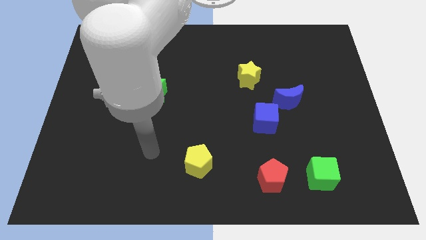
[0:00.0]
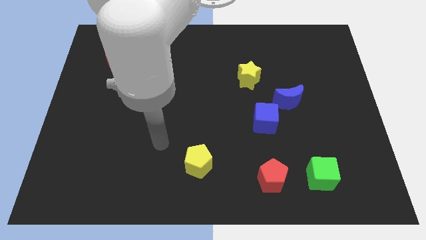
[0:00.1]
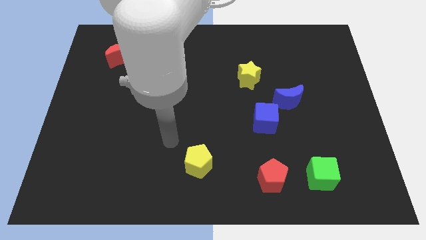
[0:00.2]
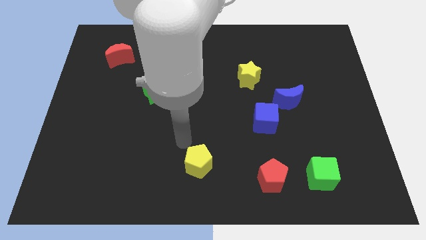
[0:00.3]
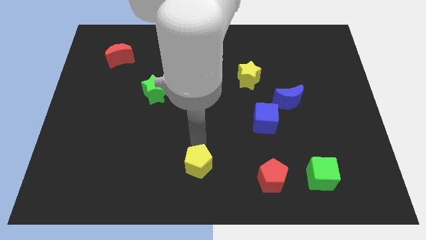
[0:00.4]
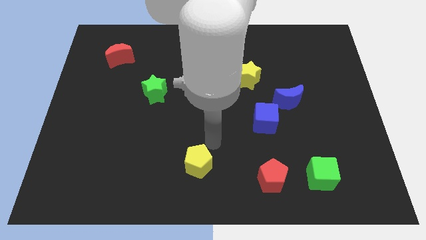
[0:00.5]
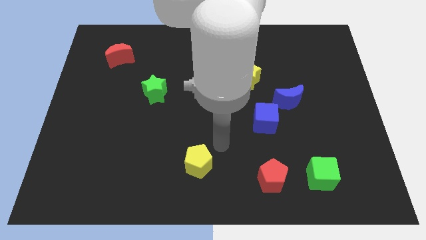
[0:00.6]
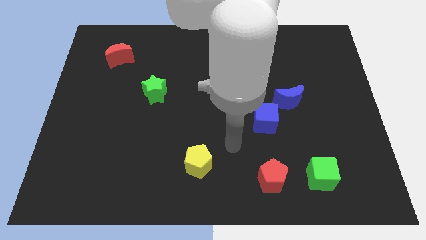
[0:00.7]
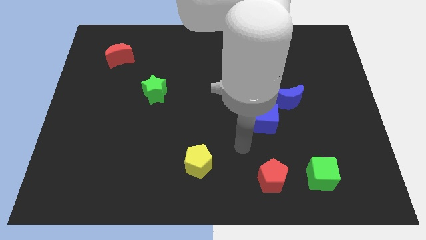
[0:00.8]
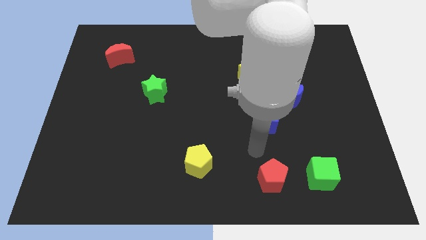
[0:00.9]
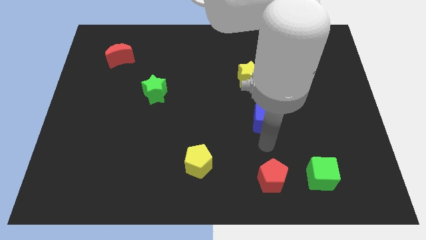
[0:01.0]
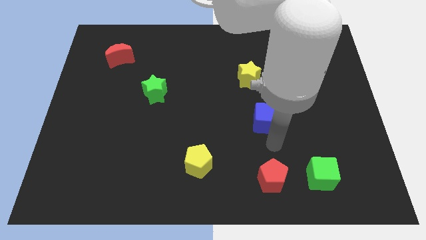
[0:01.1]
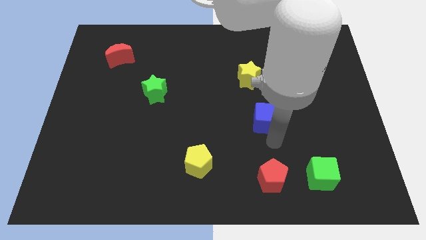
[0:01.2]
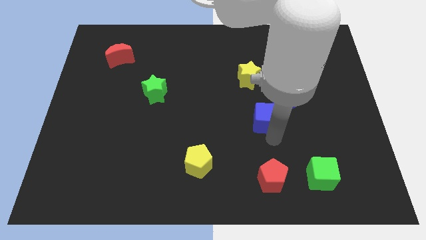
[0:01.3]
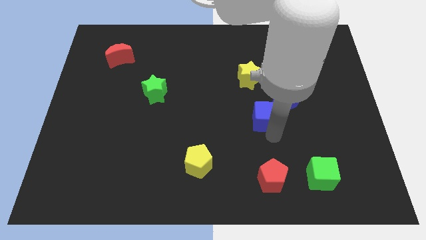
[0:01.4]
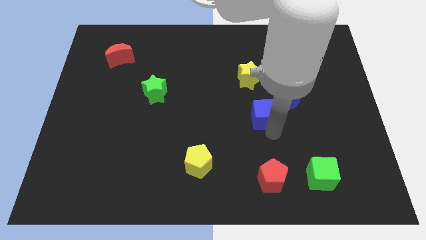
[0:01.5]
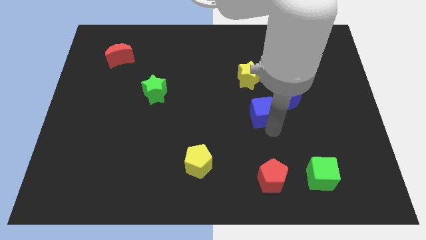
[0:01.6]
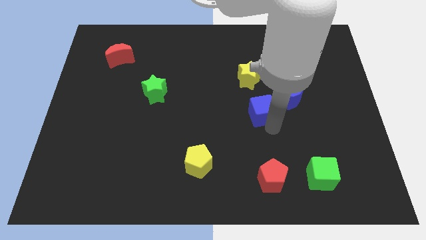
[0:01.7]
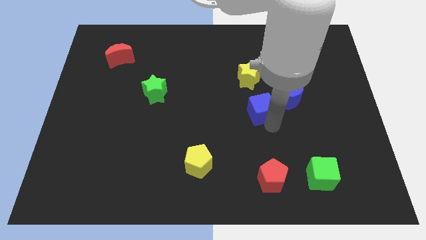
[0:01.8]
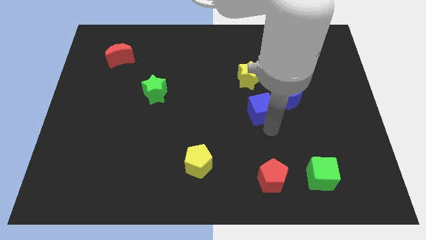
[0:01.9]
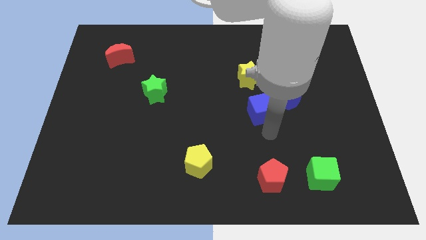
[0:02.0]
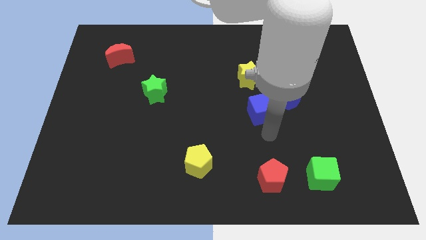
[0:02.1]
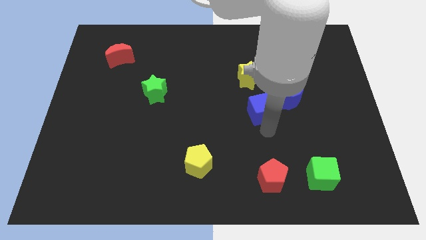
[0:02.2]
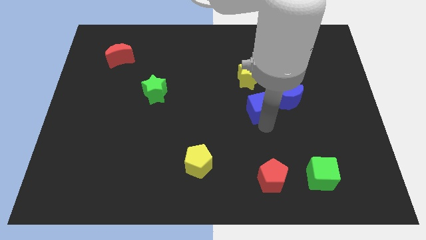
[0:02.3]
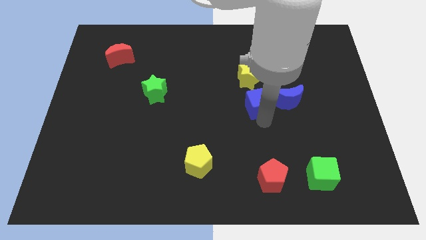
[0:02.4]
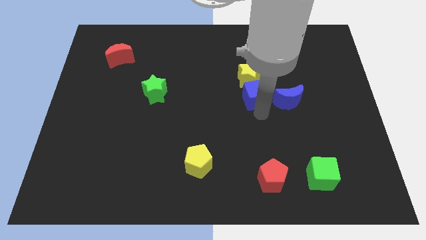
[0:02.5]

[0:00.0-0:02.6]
slide the blue cube towards the yellow star

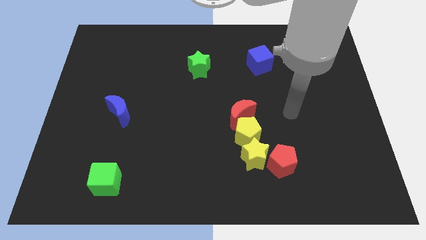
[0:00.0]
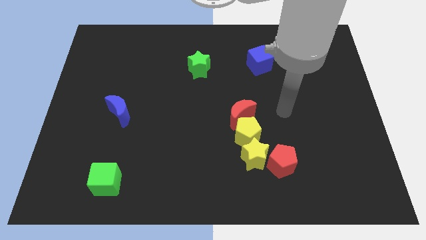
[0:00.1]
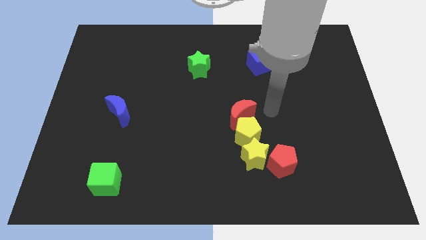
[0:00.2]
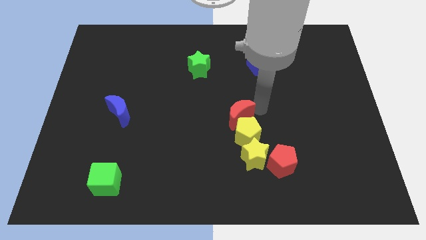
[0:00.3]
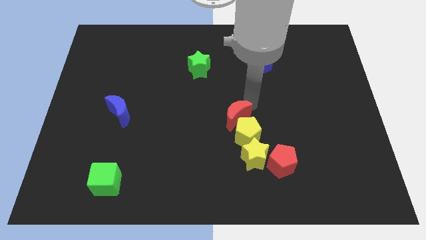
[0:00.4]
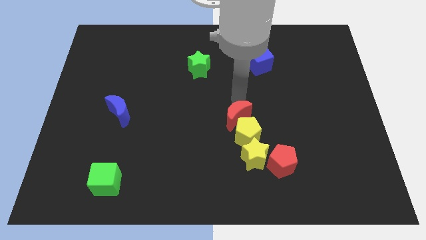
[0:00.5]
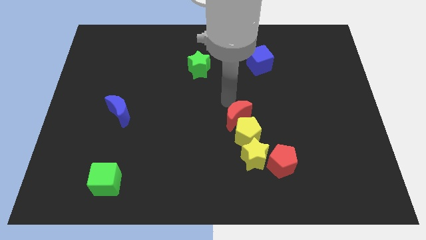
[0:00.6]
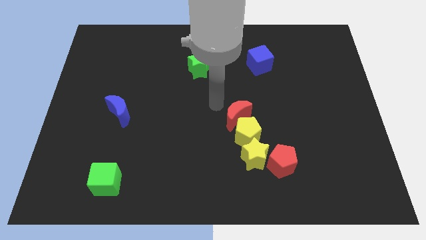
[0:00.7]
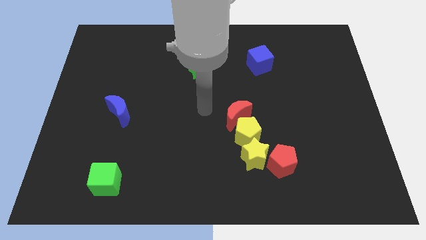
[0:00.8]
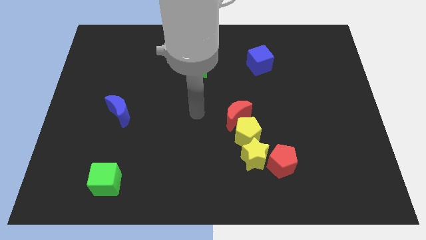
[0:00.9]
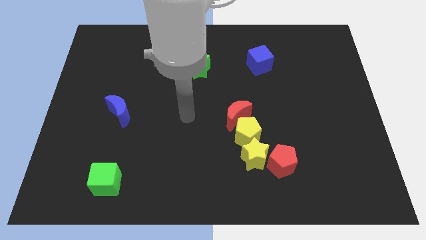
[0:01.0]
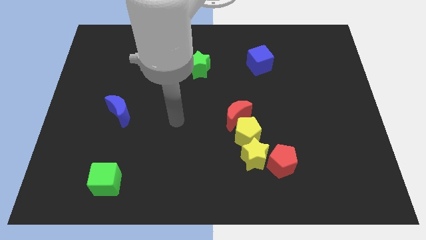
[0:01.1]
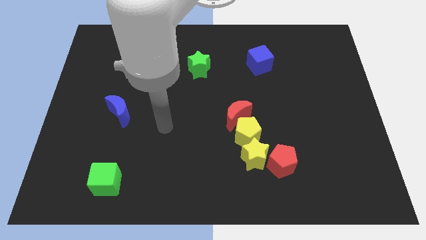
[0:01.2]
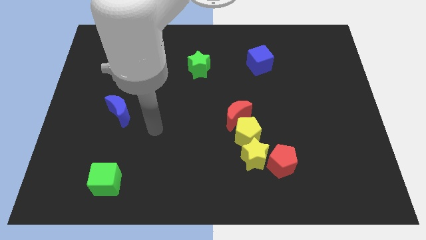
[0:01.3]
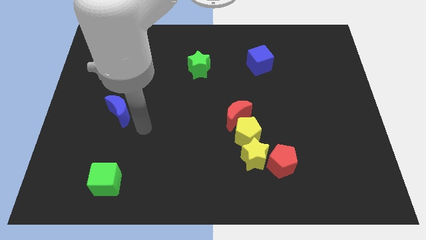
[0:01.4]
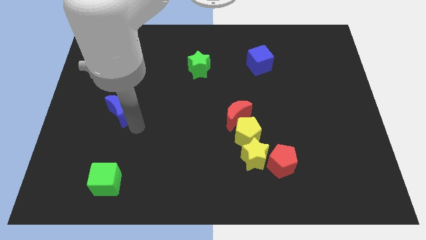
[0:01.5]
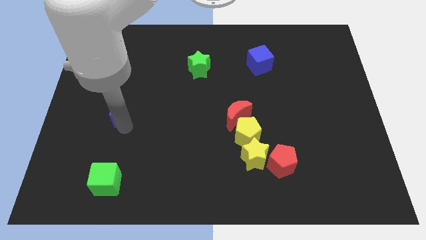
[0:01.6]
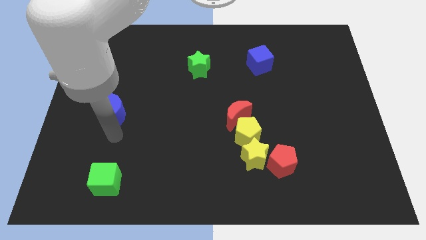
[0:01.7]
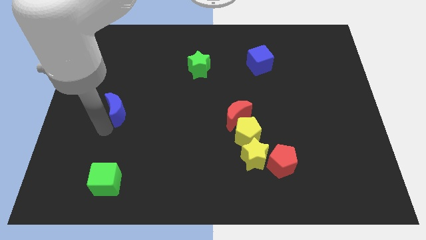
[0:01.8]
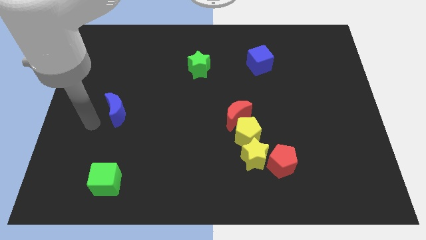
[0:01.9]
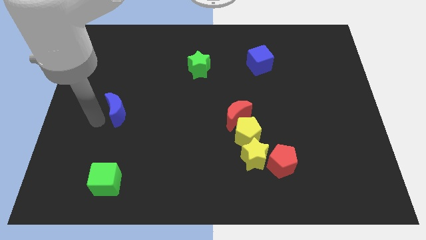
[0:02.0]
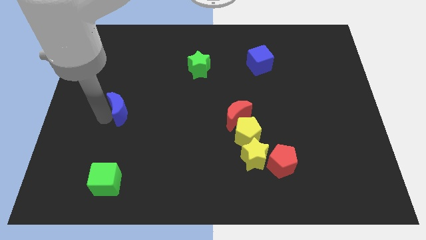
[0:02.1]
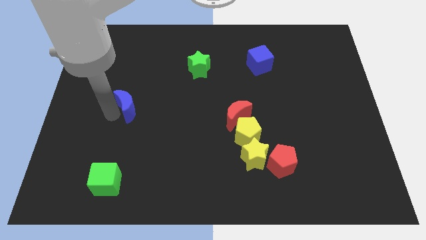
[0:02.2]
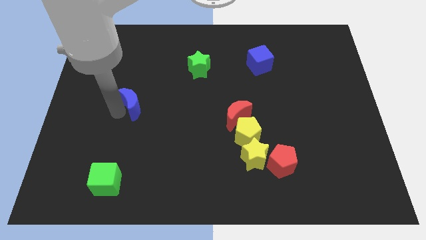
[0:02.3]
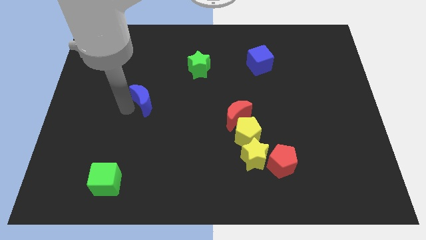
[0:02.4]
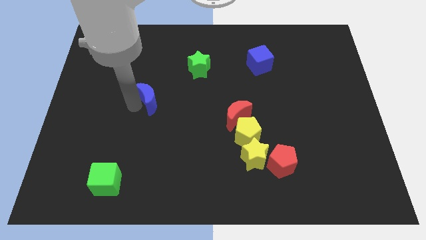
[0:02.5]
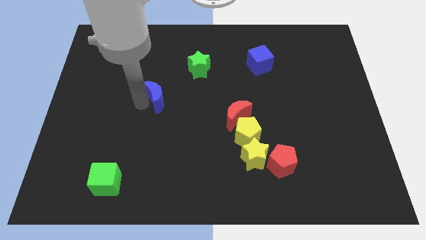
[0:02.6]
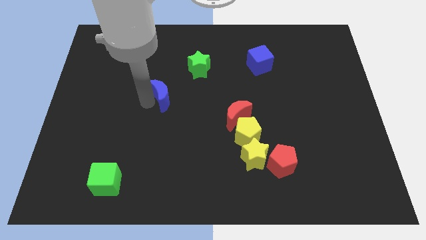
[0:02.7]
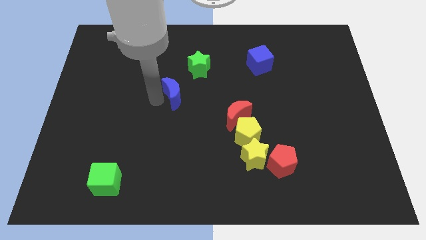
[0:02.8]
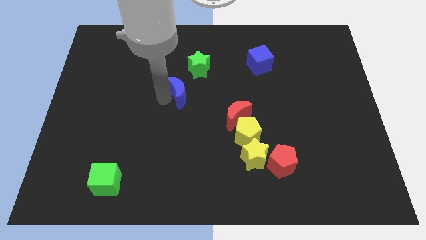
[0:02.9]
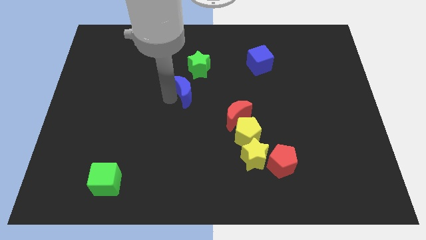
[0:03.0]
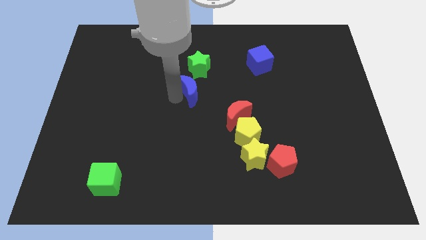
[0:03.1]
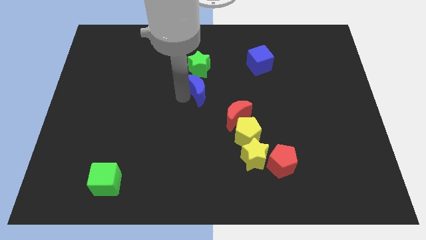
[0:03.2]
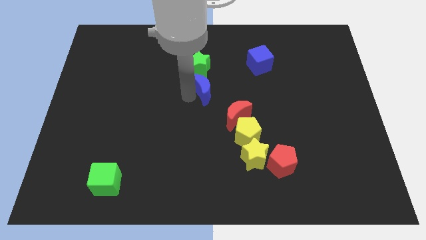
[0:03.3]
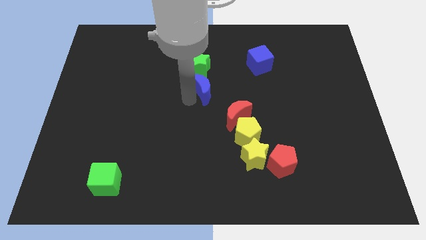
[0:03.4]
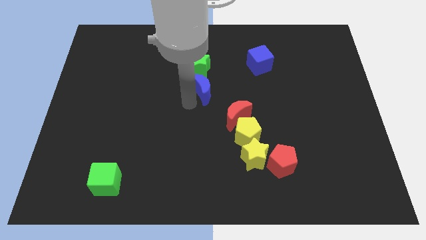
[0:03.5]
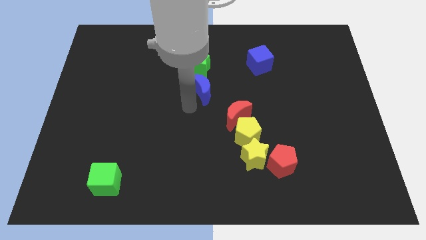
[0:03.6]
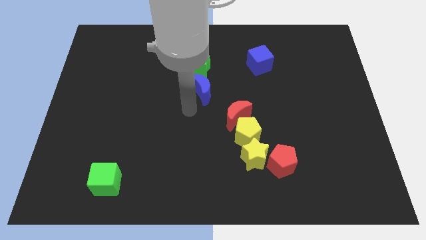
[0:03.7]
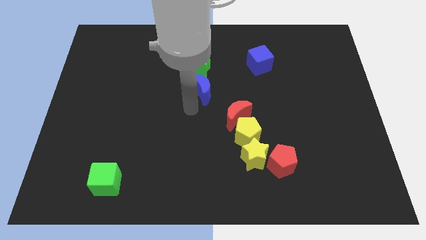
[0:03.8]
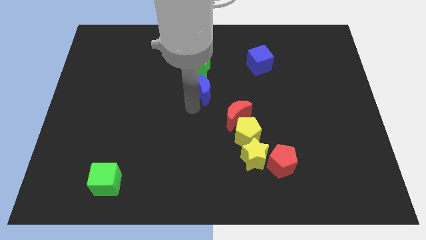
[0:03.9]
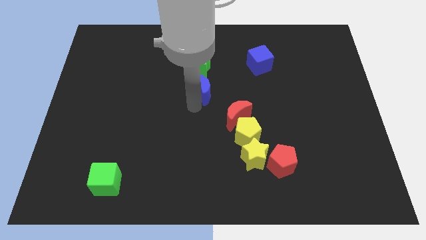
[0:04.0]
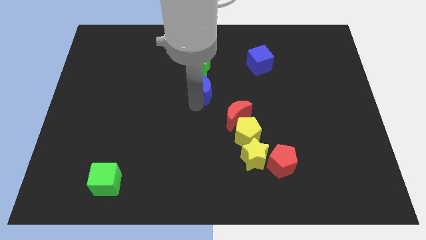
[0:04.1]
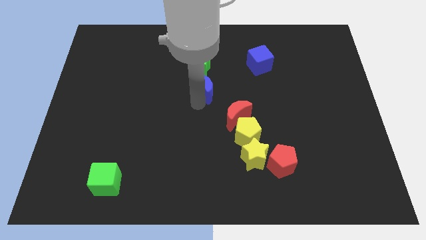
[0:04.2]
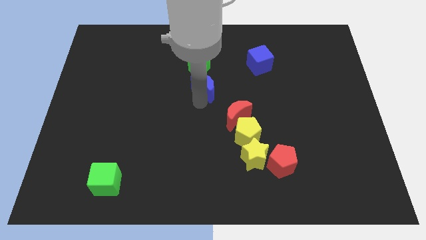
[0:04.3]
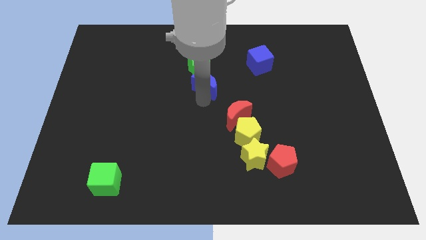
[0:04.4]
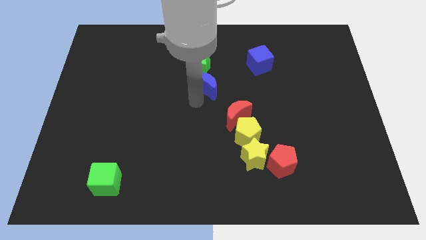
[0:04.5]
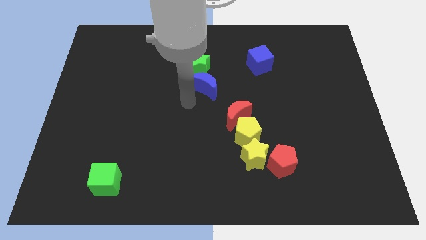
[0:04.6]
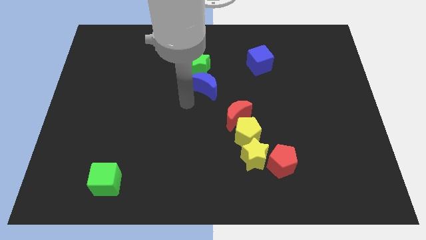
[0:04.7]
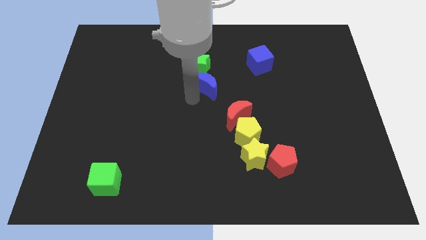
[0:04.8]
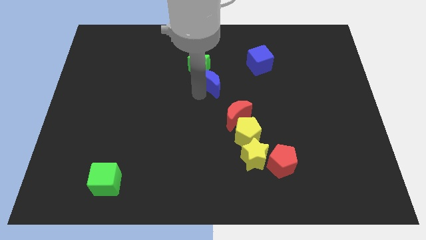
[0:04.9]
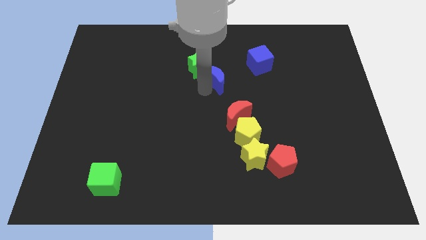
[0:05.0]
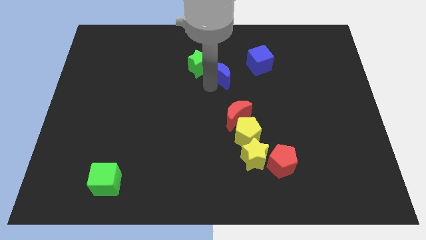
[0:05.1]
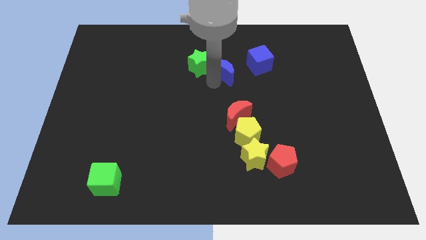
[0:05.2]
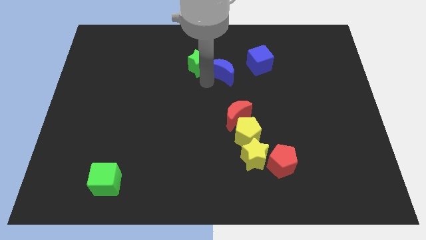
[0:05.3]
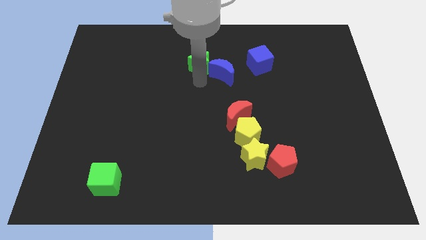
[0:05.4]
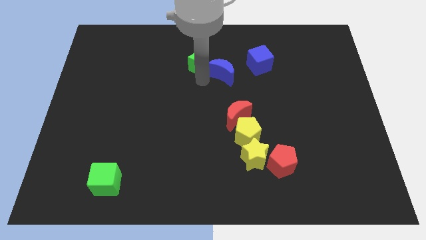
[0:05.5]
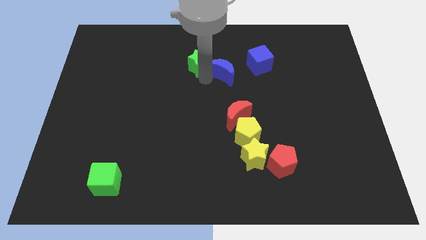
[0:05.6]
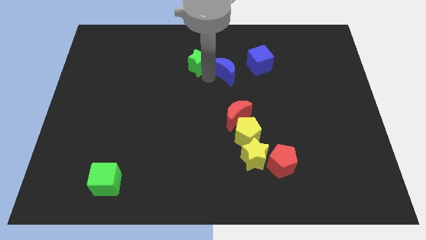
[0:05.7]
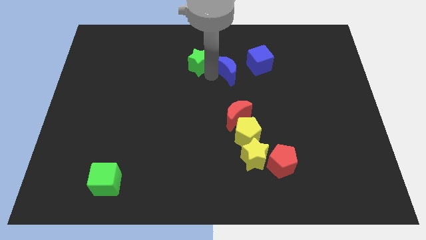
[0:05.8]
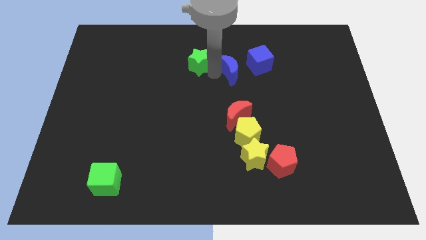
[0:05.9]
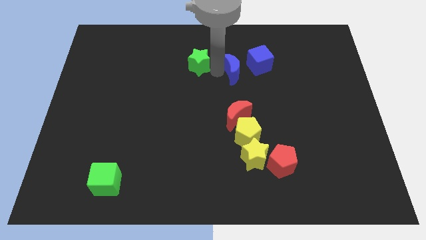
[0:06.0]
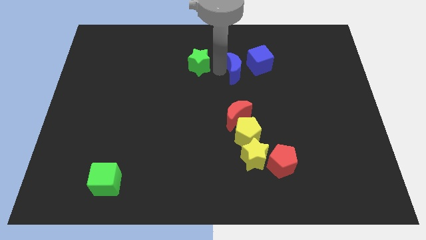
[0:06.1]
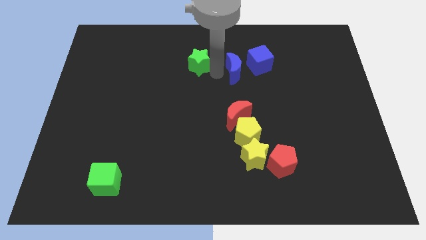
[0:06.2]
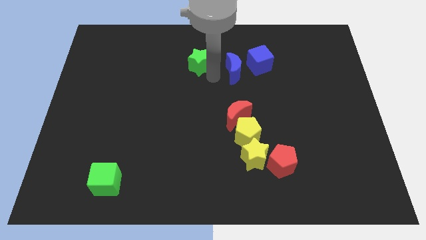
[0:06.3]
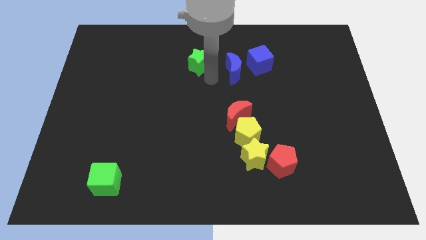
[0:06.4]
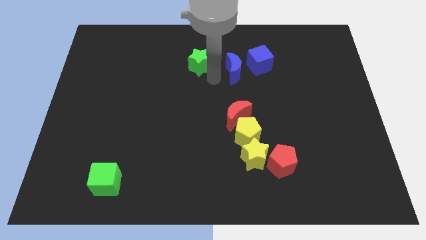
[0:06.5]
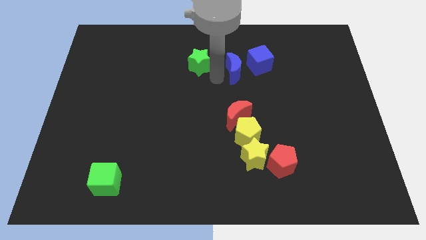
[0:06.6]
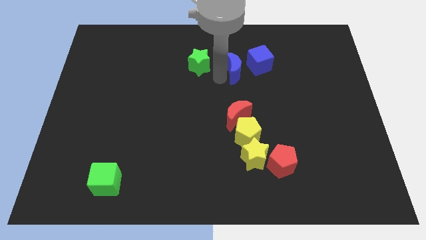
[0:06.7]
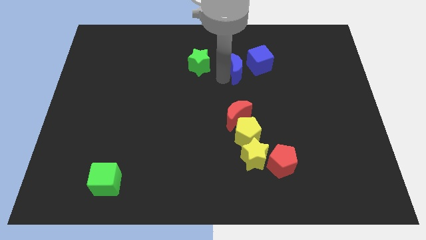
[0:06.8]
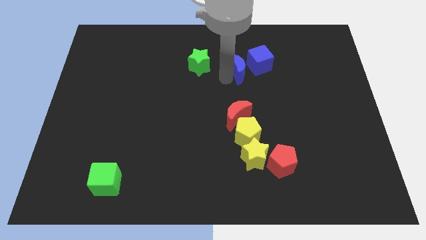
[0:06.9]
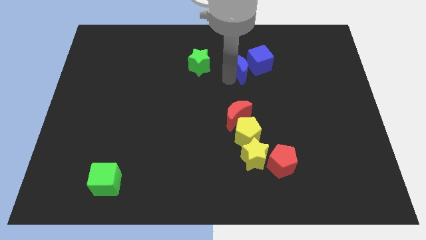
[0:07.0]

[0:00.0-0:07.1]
move the blue moon towards the blue cube
